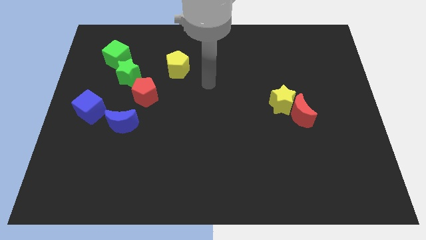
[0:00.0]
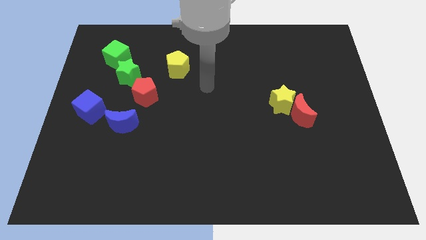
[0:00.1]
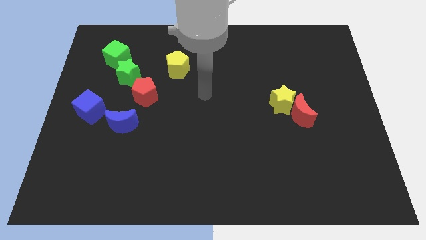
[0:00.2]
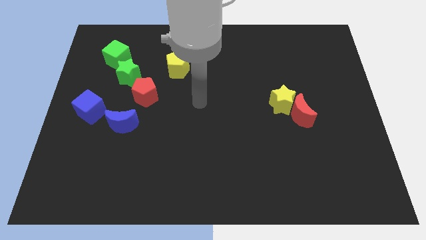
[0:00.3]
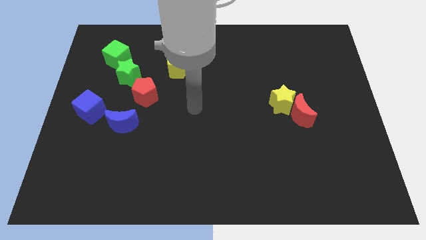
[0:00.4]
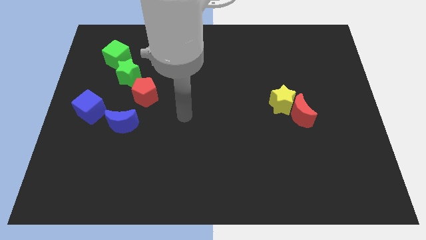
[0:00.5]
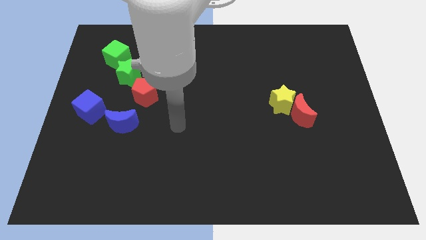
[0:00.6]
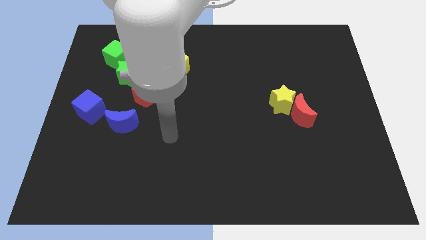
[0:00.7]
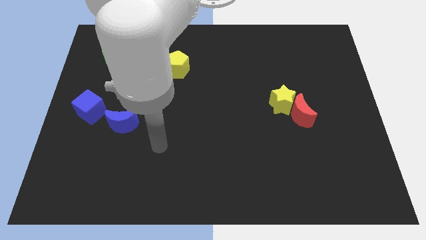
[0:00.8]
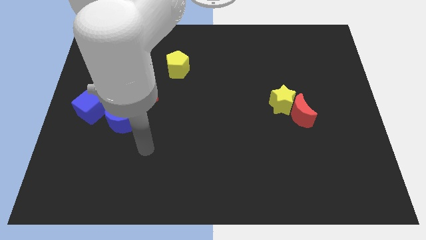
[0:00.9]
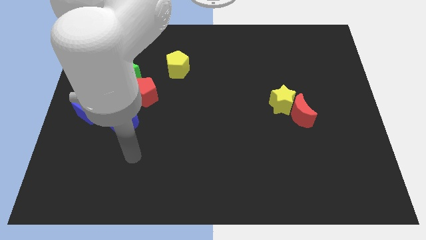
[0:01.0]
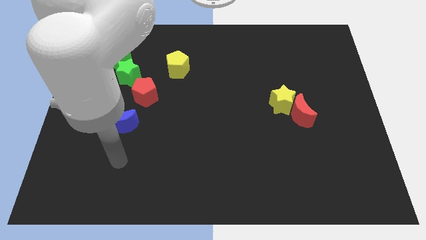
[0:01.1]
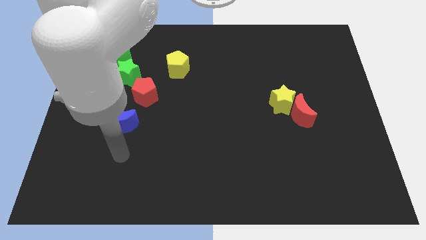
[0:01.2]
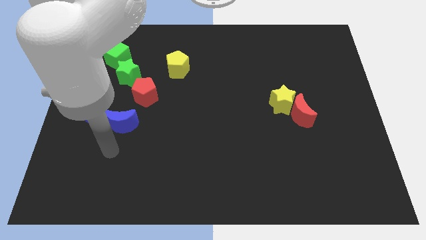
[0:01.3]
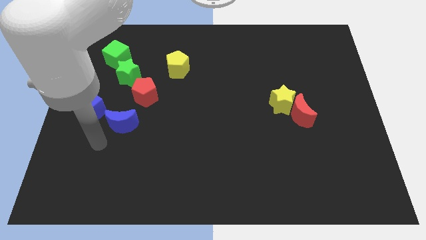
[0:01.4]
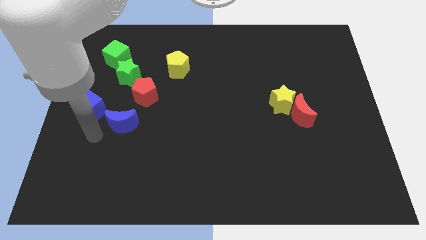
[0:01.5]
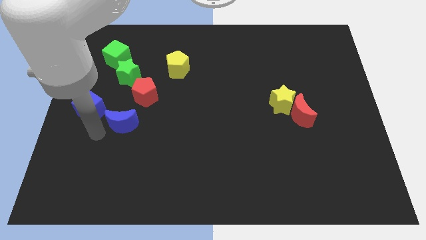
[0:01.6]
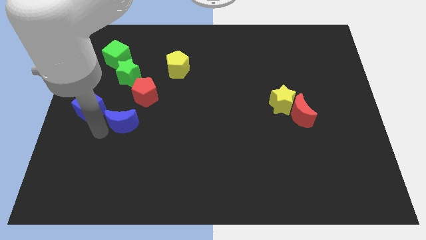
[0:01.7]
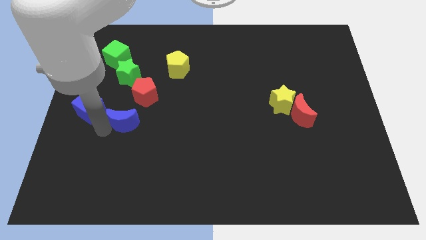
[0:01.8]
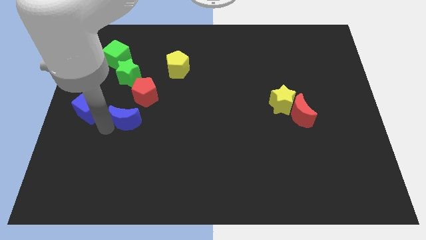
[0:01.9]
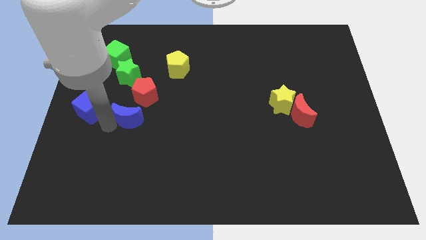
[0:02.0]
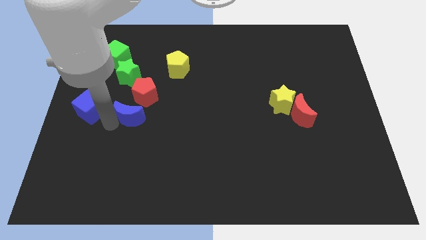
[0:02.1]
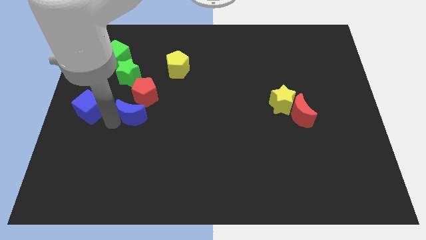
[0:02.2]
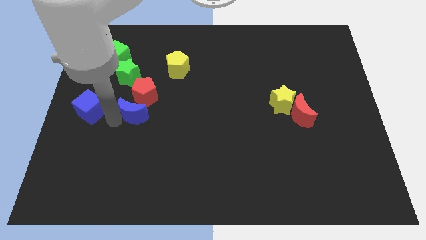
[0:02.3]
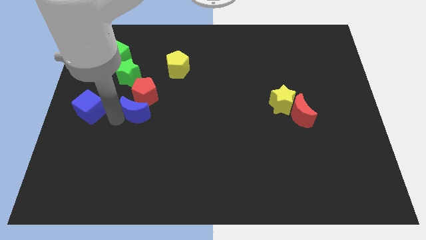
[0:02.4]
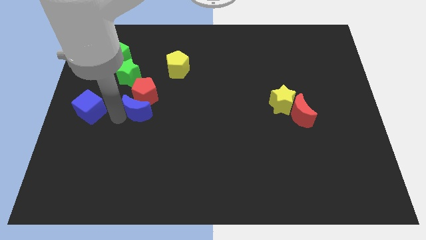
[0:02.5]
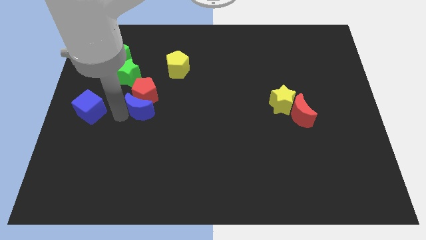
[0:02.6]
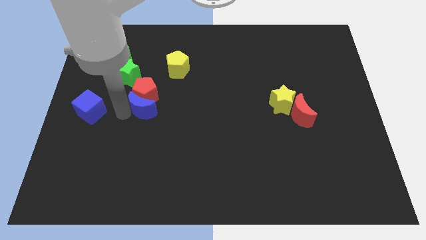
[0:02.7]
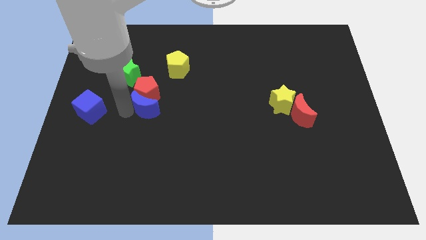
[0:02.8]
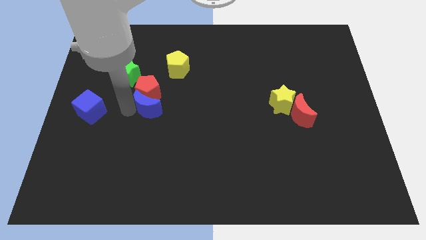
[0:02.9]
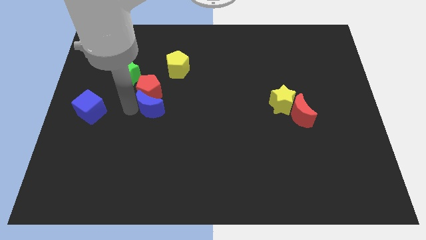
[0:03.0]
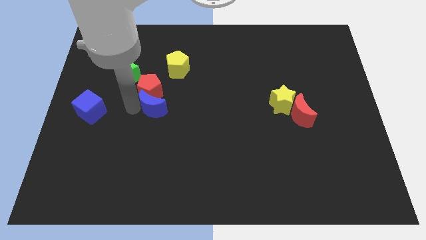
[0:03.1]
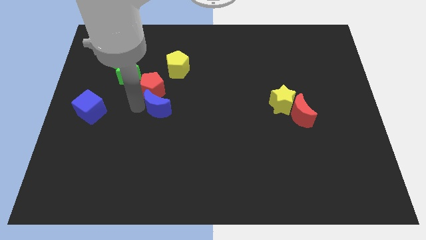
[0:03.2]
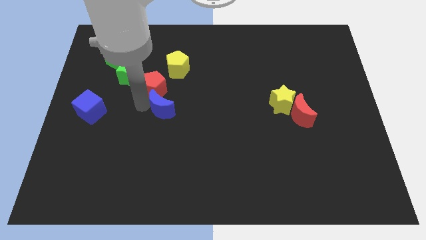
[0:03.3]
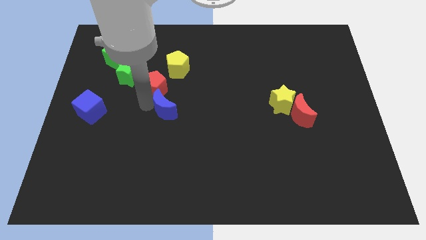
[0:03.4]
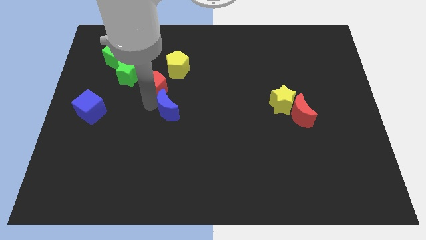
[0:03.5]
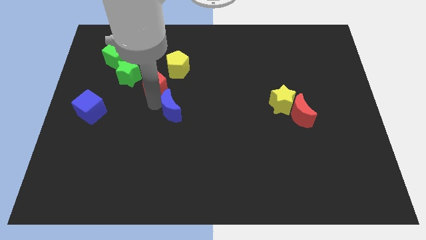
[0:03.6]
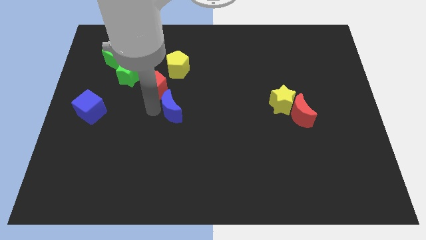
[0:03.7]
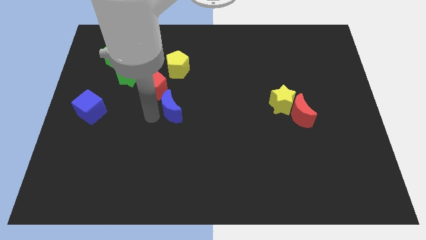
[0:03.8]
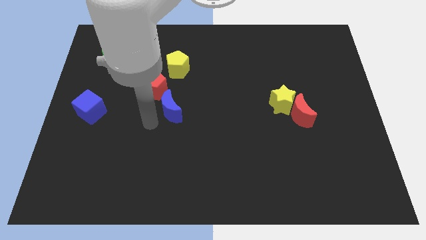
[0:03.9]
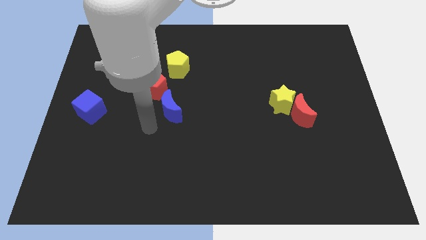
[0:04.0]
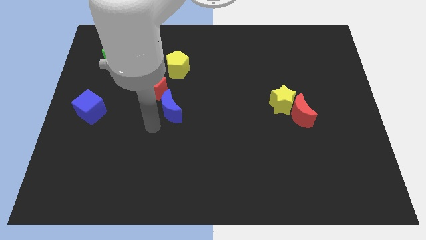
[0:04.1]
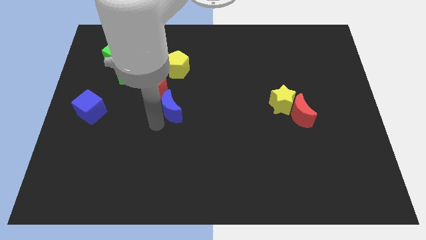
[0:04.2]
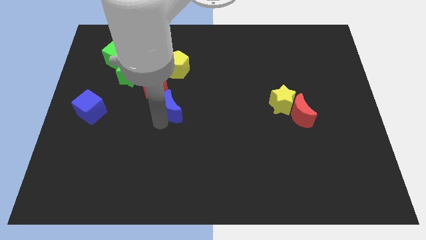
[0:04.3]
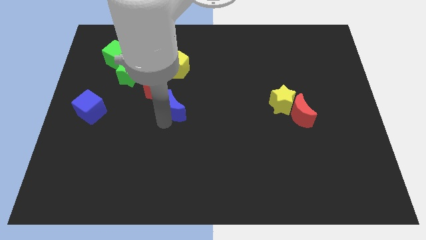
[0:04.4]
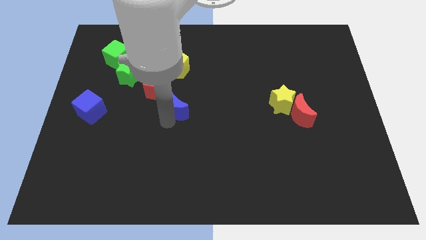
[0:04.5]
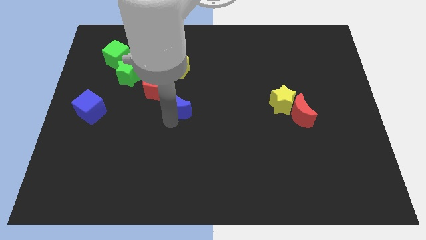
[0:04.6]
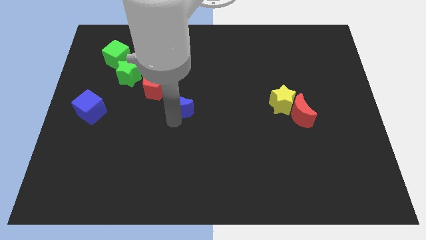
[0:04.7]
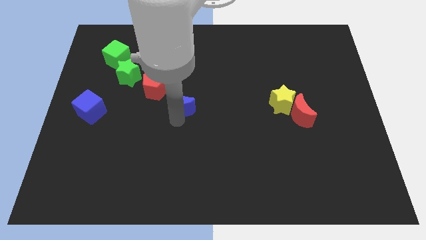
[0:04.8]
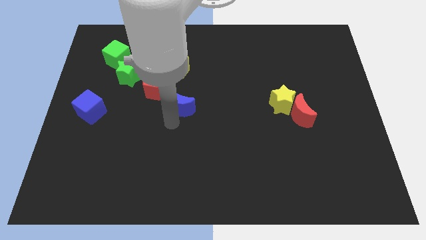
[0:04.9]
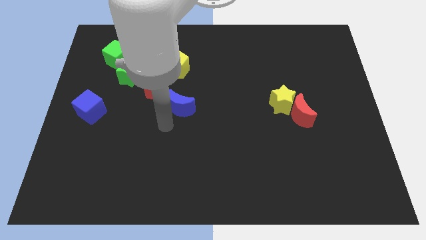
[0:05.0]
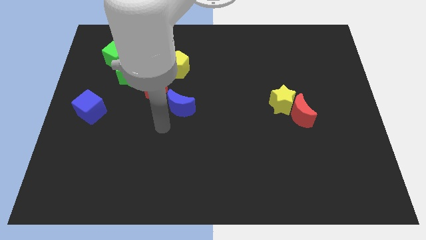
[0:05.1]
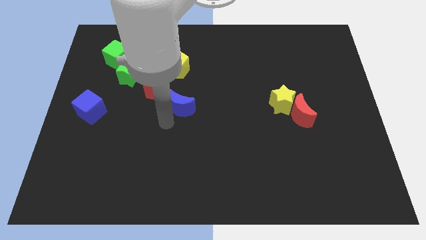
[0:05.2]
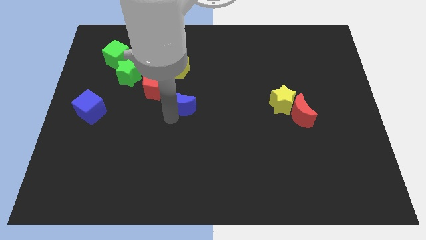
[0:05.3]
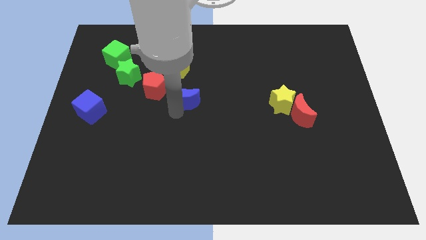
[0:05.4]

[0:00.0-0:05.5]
slide the blue moon just right of the red pentagon
